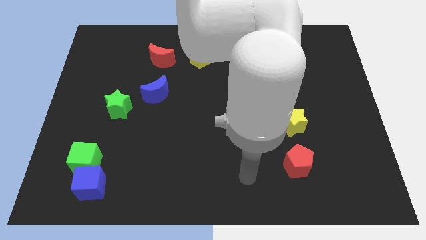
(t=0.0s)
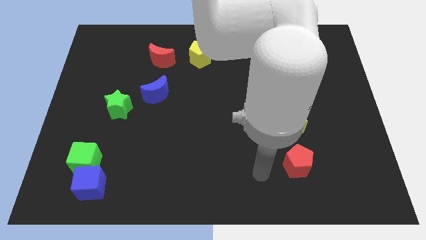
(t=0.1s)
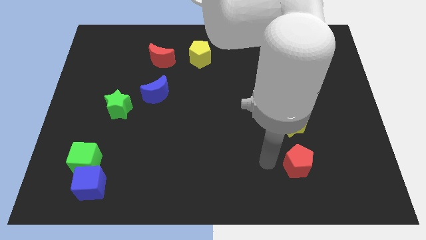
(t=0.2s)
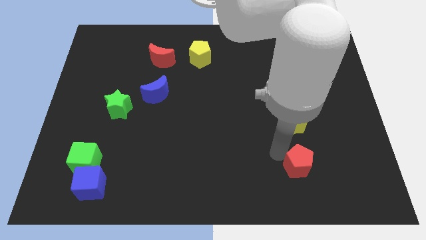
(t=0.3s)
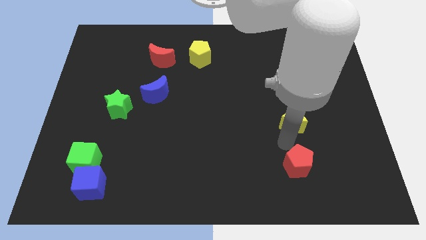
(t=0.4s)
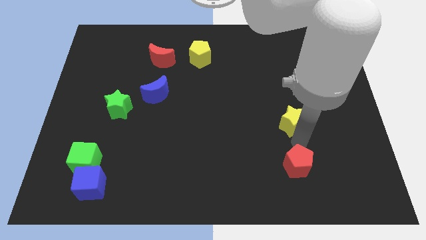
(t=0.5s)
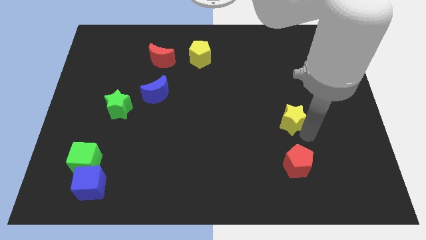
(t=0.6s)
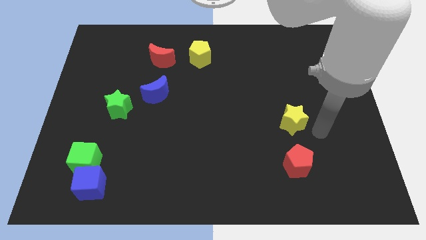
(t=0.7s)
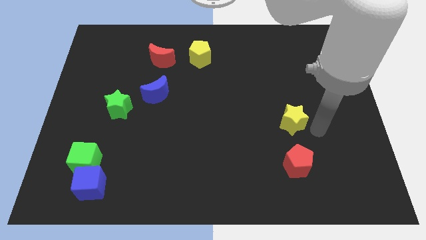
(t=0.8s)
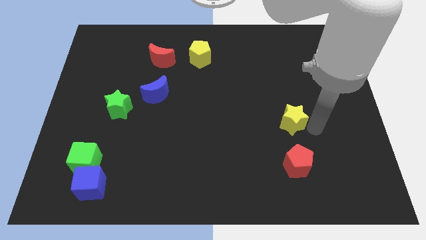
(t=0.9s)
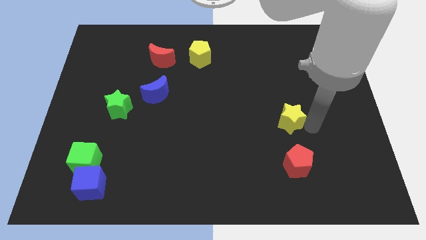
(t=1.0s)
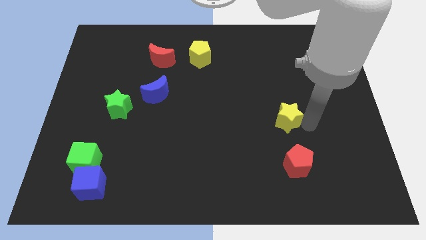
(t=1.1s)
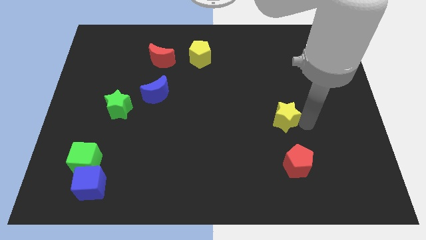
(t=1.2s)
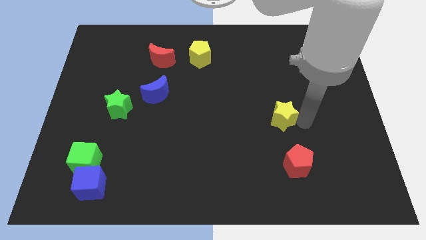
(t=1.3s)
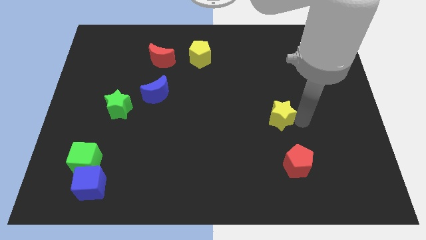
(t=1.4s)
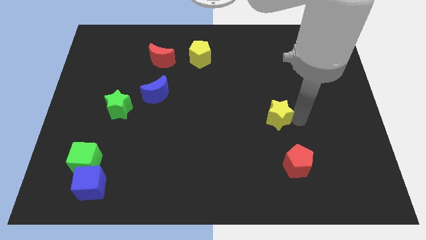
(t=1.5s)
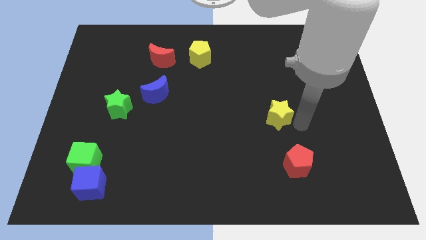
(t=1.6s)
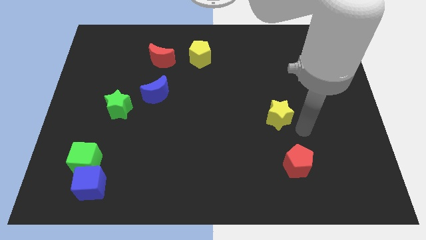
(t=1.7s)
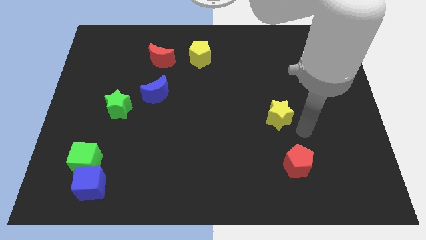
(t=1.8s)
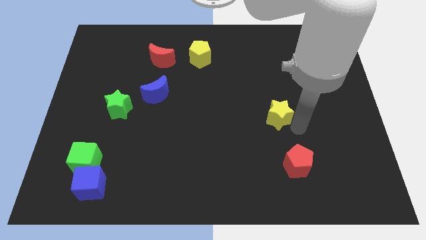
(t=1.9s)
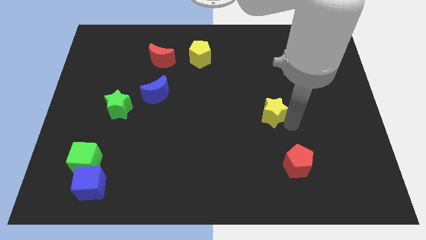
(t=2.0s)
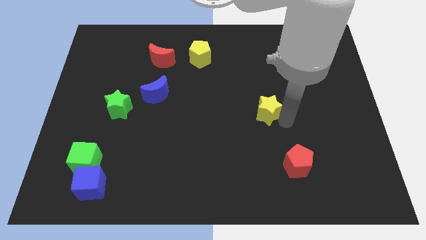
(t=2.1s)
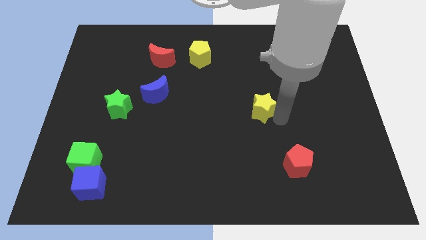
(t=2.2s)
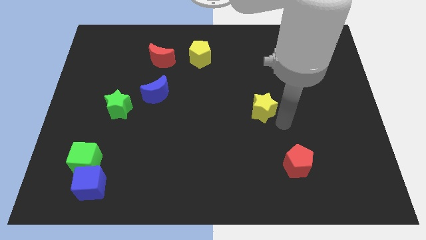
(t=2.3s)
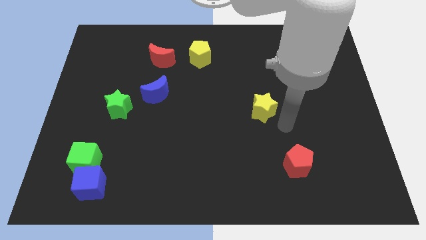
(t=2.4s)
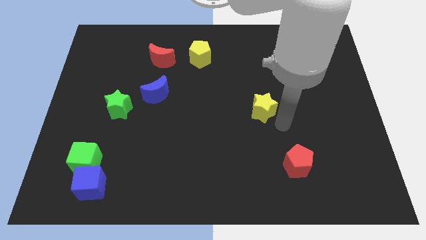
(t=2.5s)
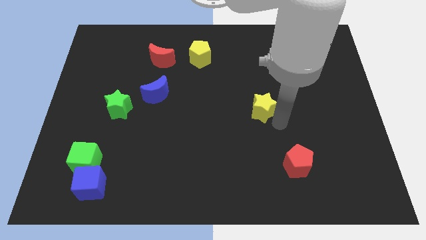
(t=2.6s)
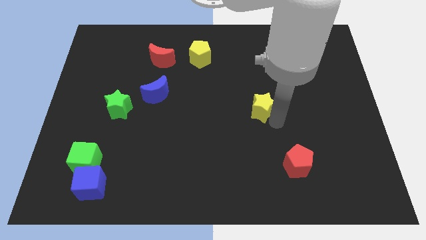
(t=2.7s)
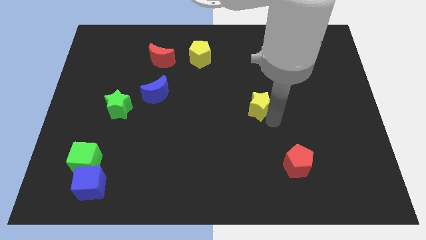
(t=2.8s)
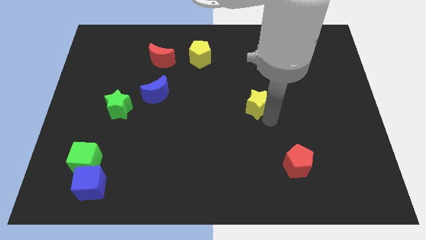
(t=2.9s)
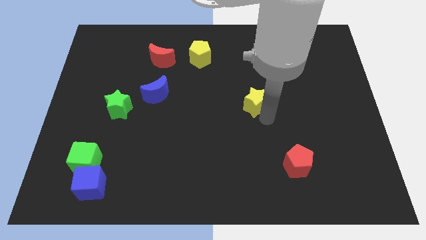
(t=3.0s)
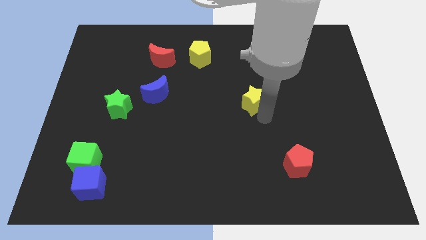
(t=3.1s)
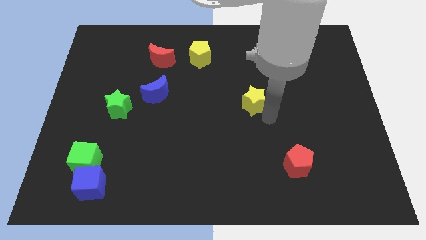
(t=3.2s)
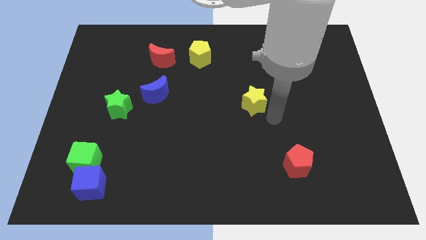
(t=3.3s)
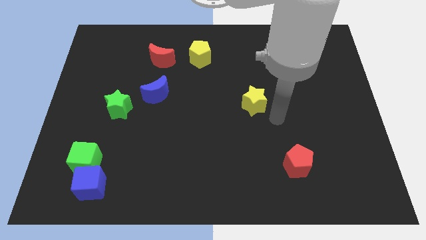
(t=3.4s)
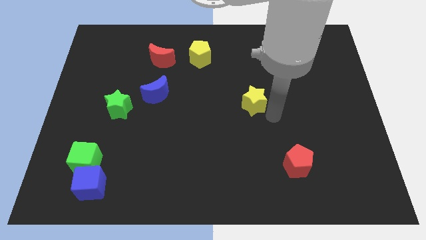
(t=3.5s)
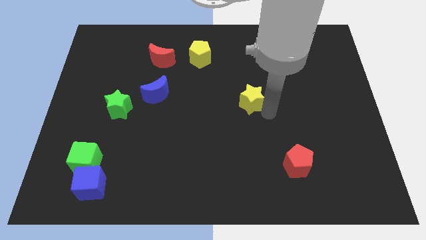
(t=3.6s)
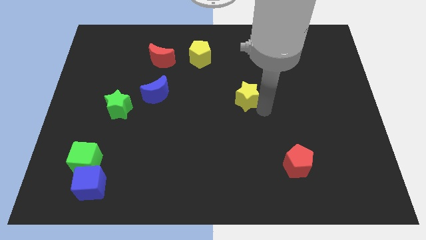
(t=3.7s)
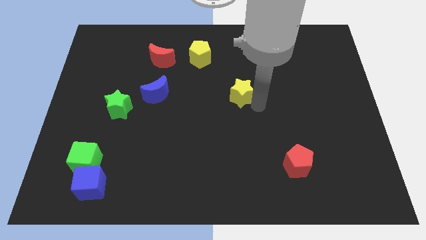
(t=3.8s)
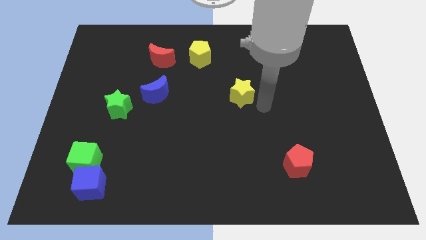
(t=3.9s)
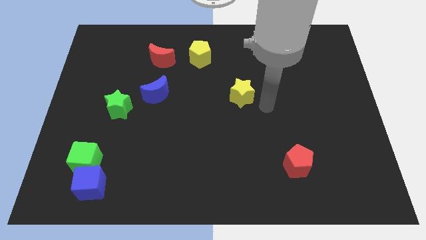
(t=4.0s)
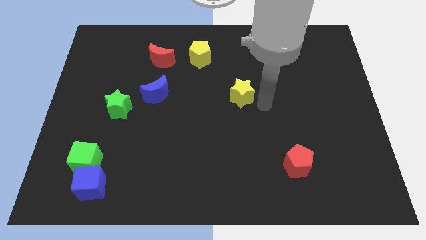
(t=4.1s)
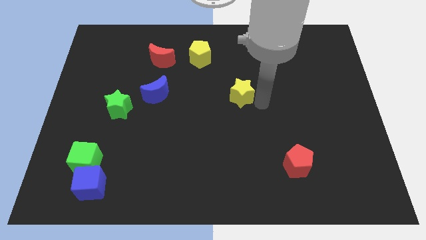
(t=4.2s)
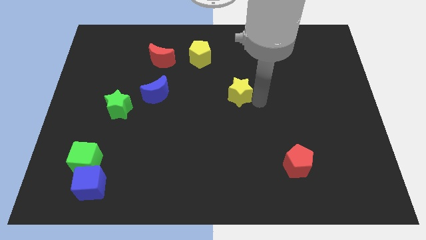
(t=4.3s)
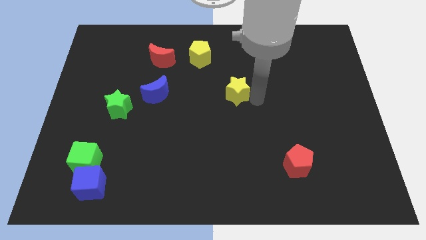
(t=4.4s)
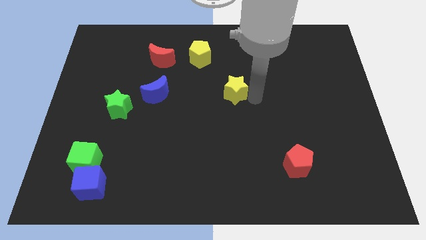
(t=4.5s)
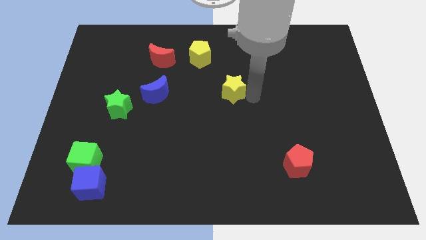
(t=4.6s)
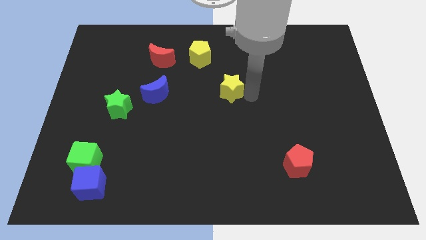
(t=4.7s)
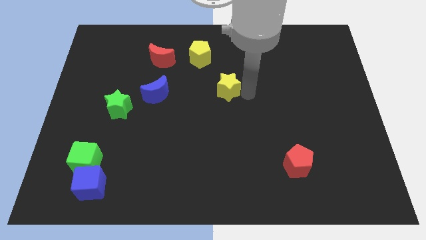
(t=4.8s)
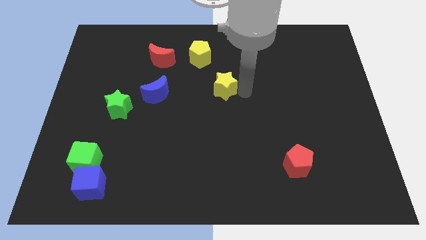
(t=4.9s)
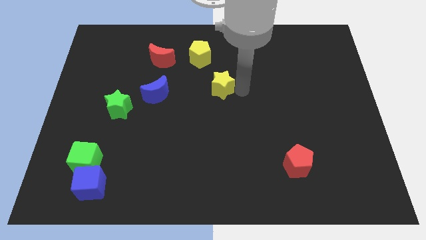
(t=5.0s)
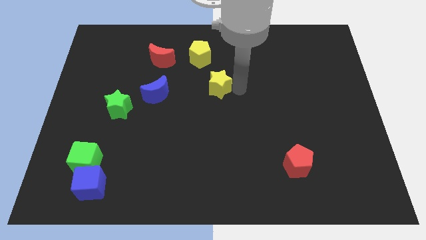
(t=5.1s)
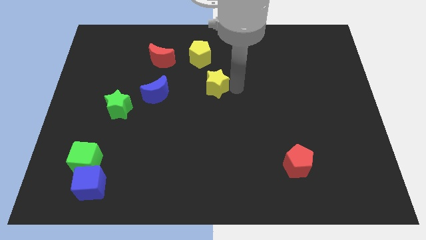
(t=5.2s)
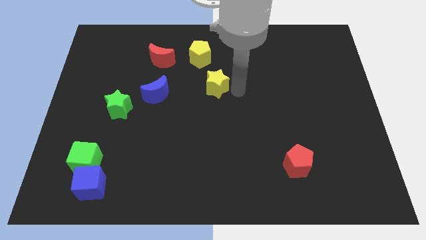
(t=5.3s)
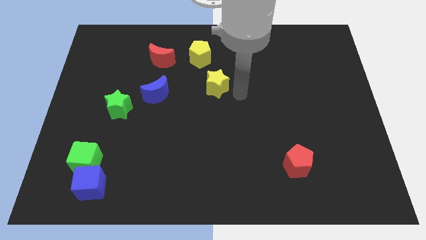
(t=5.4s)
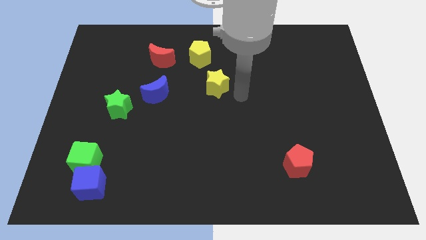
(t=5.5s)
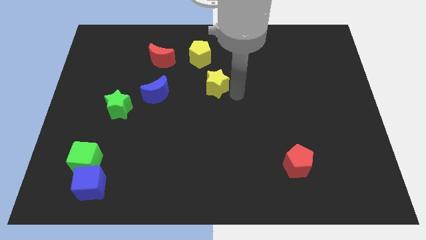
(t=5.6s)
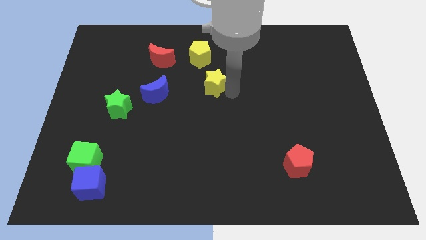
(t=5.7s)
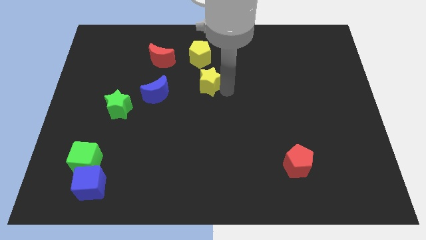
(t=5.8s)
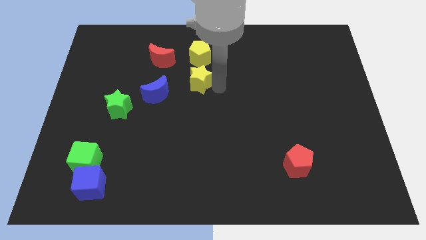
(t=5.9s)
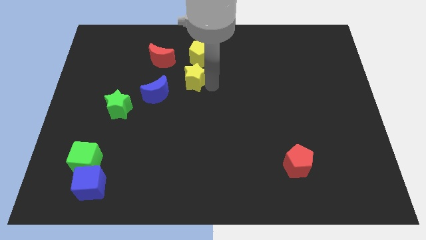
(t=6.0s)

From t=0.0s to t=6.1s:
move the yellow star diagonally down and to the right of the red moon

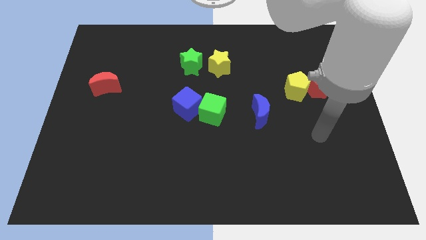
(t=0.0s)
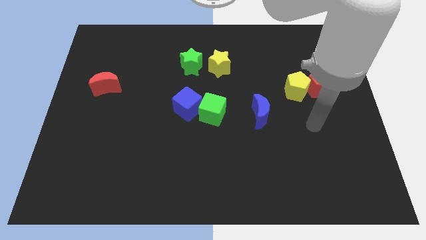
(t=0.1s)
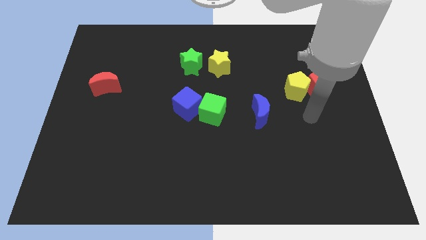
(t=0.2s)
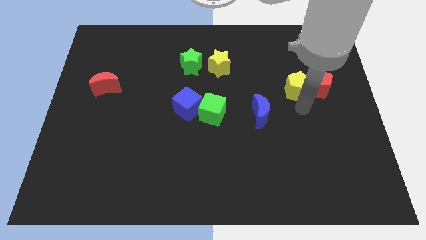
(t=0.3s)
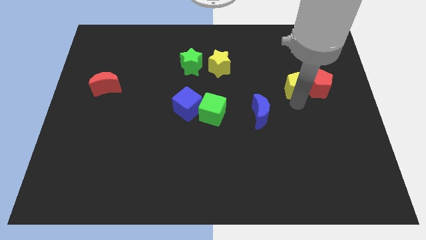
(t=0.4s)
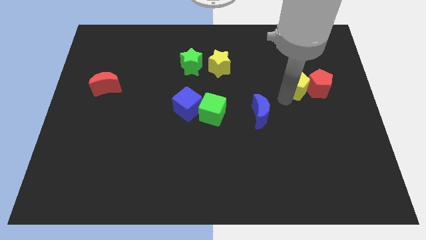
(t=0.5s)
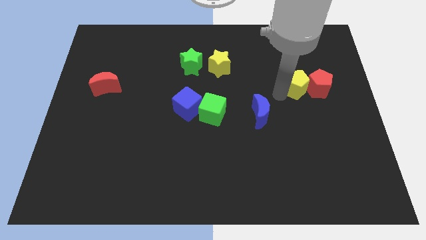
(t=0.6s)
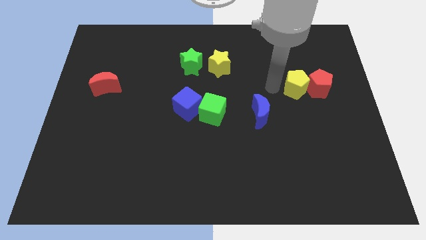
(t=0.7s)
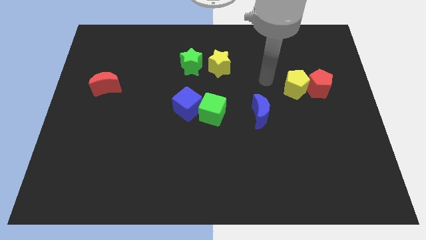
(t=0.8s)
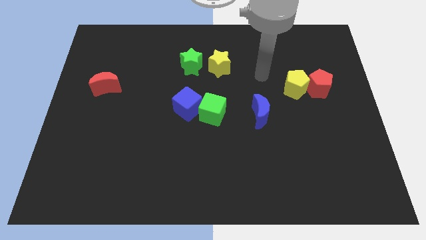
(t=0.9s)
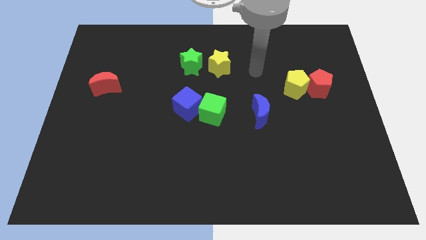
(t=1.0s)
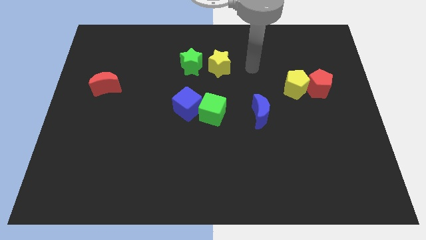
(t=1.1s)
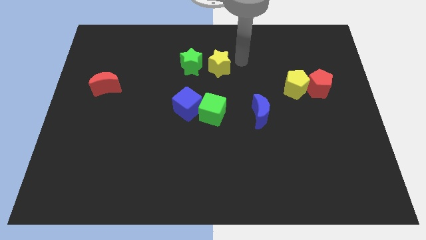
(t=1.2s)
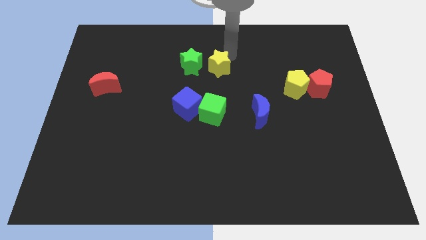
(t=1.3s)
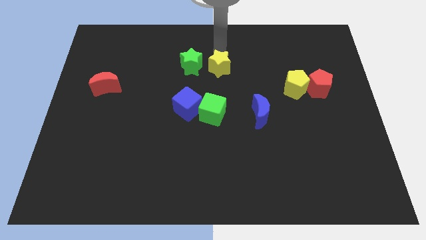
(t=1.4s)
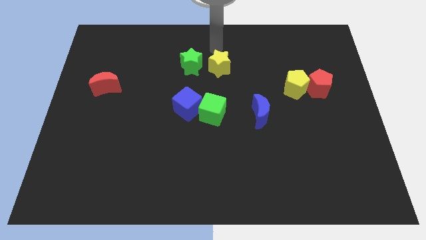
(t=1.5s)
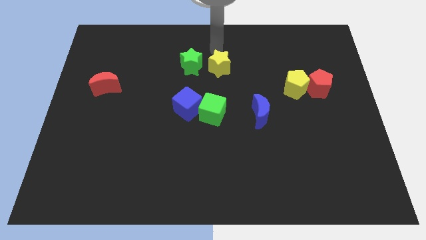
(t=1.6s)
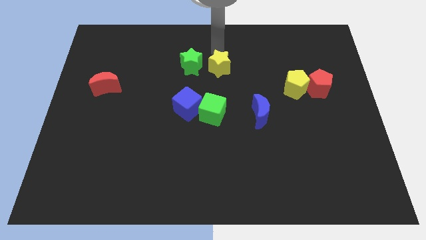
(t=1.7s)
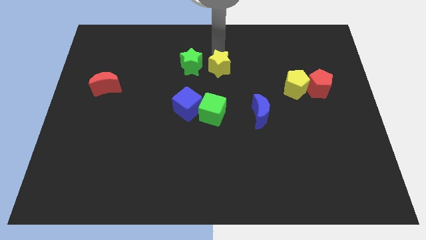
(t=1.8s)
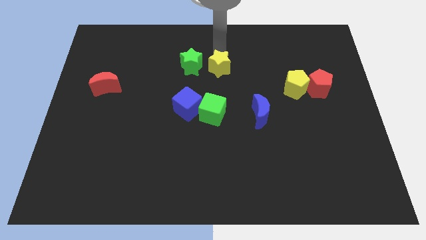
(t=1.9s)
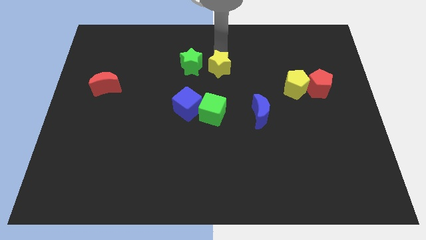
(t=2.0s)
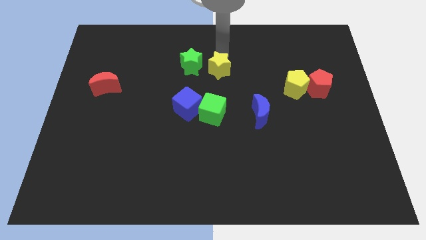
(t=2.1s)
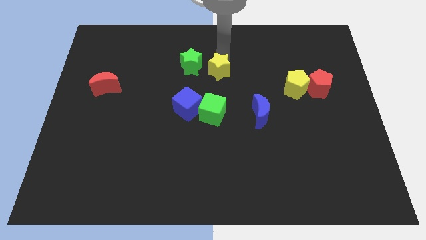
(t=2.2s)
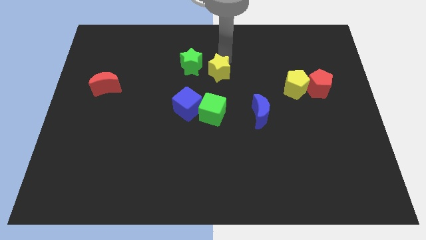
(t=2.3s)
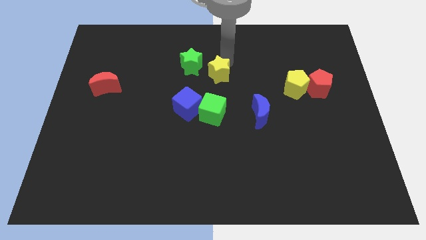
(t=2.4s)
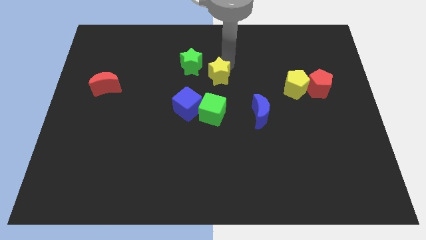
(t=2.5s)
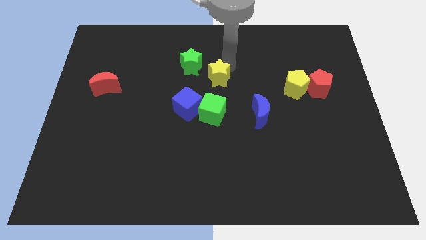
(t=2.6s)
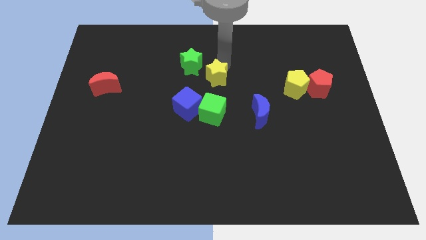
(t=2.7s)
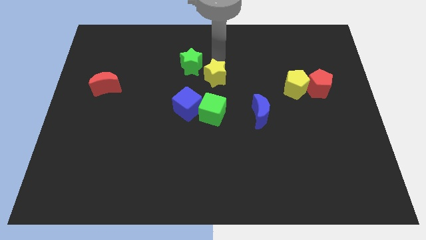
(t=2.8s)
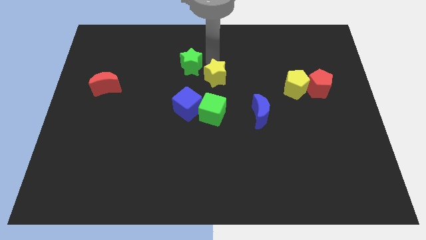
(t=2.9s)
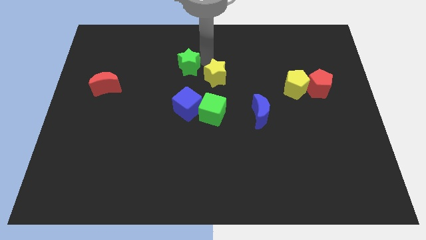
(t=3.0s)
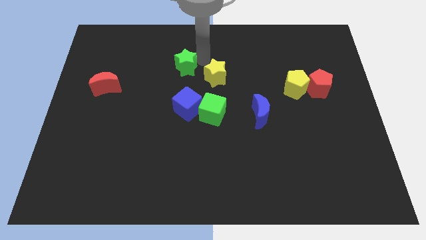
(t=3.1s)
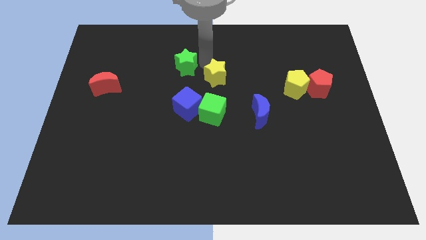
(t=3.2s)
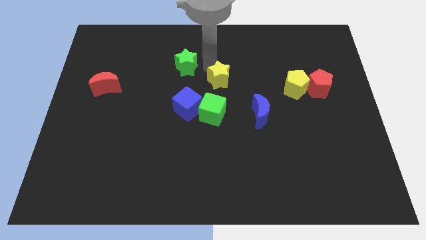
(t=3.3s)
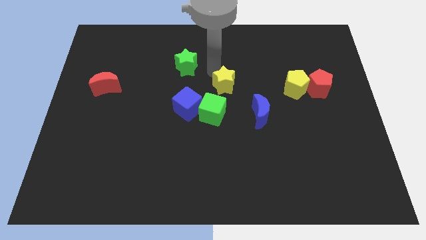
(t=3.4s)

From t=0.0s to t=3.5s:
push the yellow star to the top right of the green cube
